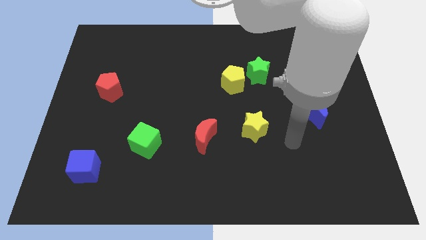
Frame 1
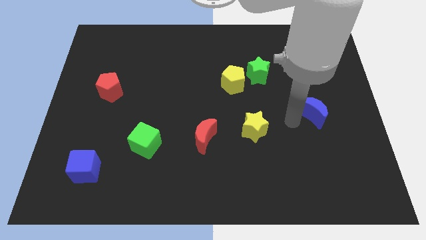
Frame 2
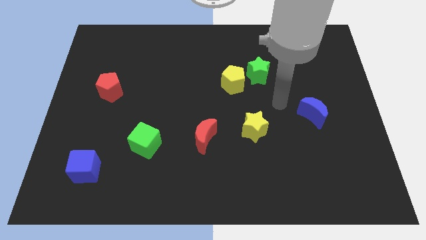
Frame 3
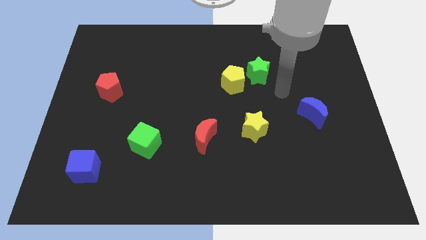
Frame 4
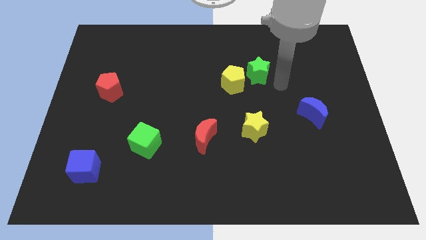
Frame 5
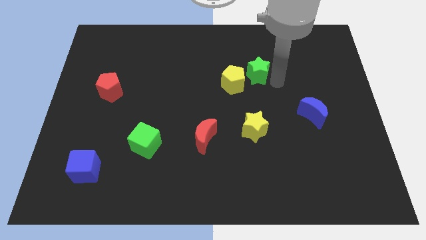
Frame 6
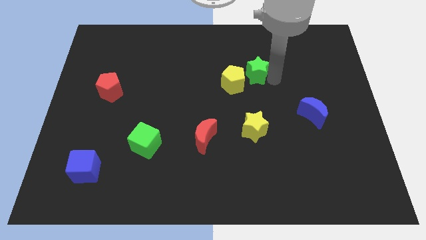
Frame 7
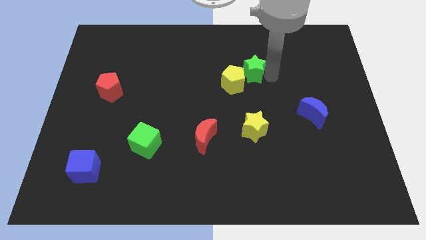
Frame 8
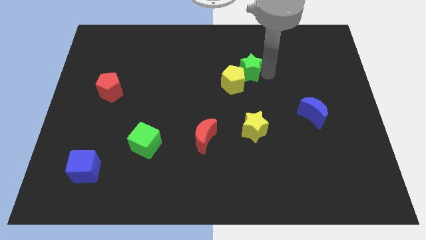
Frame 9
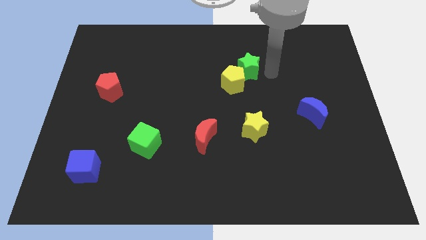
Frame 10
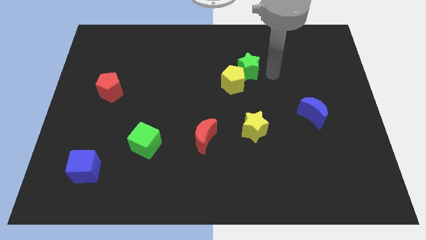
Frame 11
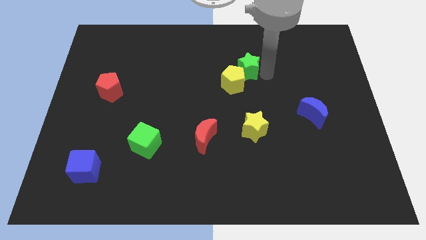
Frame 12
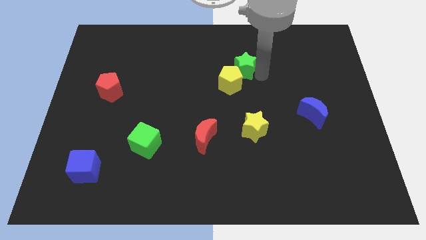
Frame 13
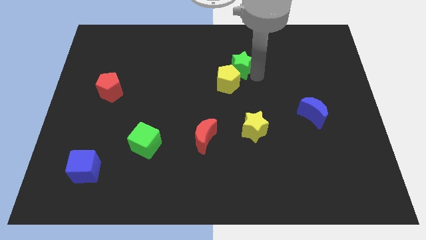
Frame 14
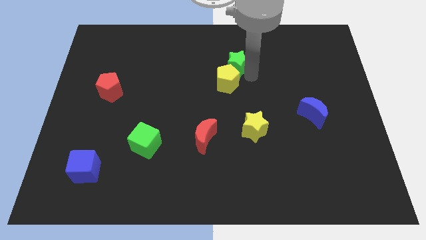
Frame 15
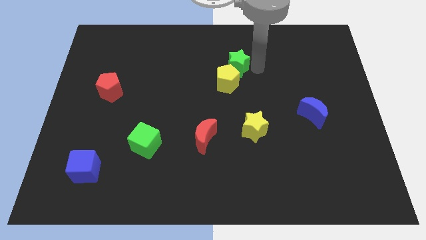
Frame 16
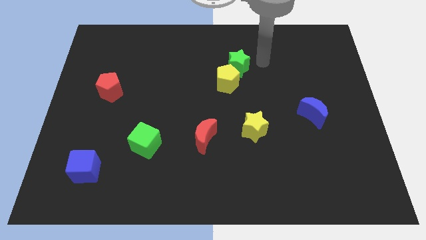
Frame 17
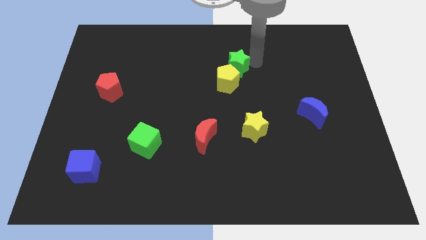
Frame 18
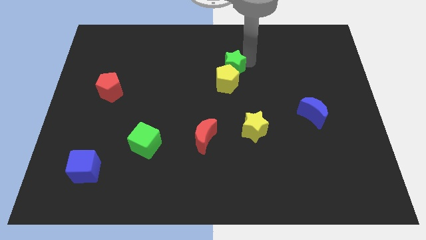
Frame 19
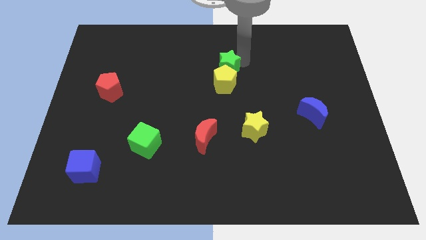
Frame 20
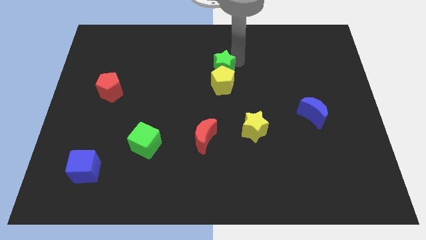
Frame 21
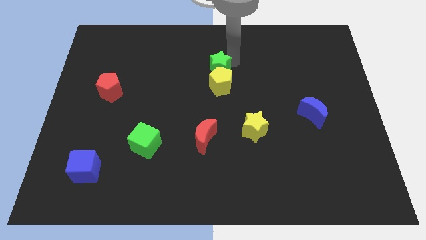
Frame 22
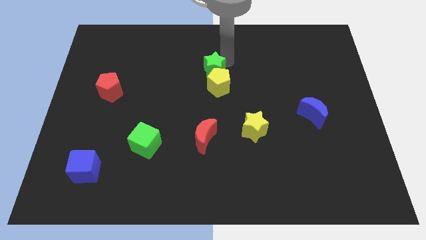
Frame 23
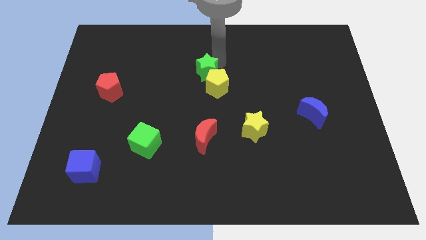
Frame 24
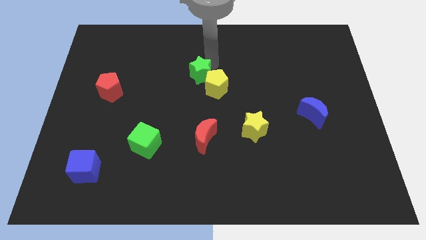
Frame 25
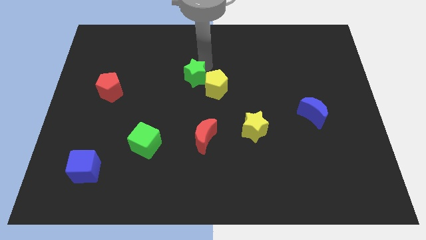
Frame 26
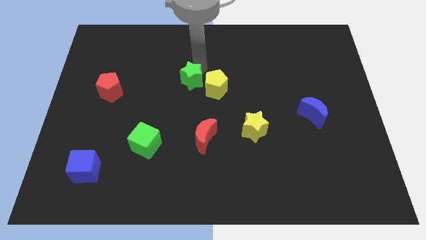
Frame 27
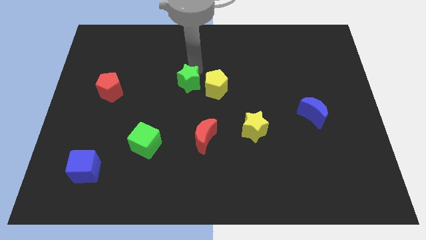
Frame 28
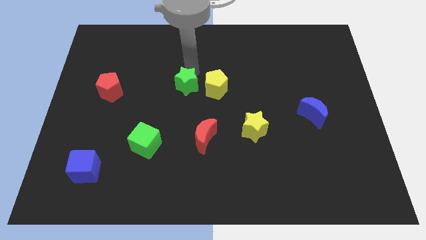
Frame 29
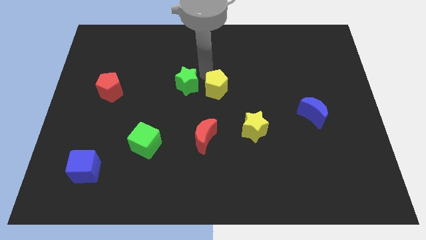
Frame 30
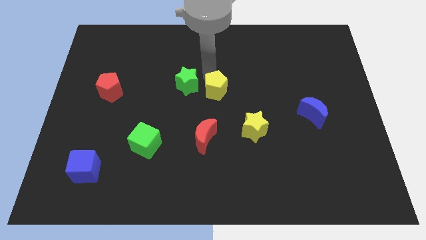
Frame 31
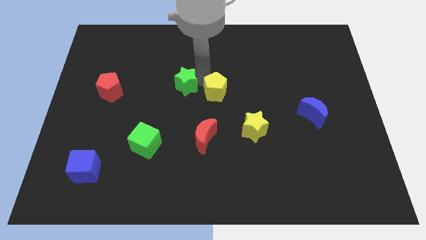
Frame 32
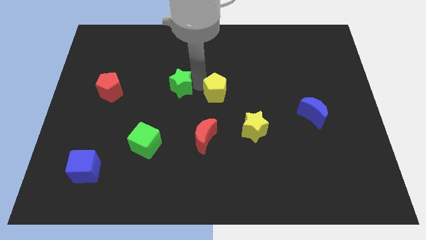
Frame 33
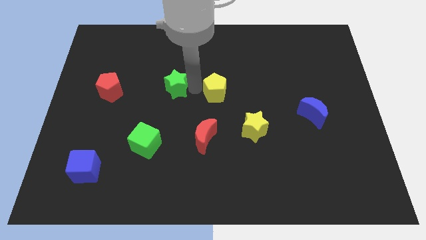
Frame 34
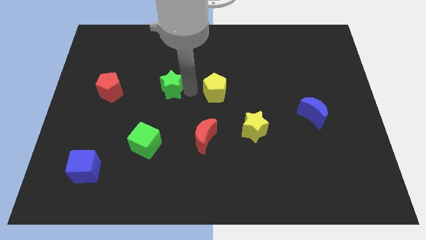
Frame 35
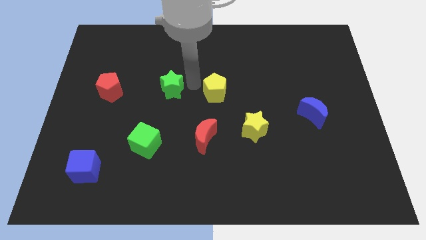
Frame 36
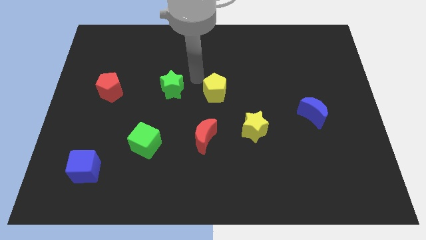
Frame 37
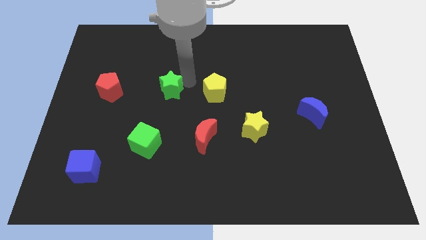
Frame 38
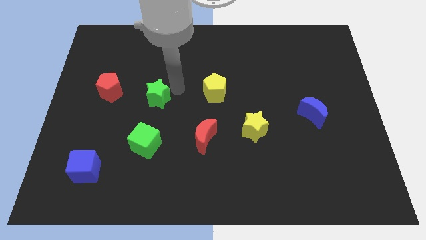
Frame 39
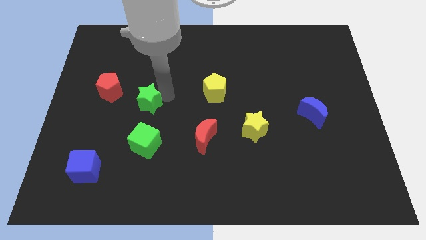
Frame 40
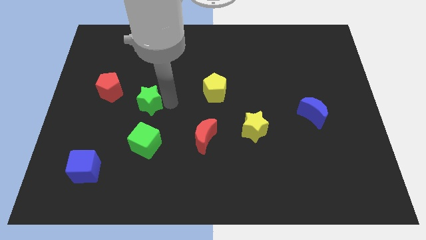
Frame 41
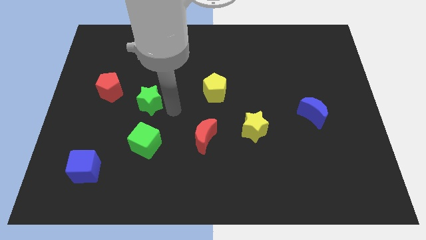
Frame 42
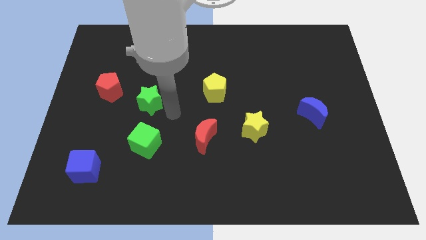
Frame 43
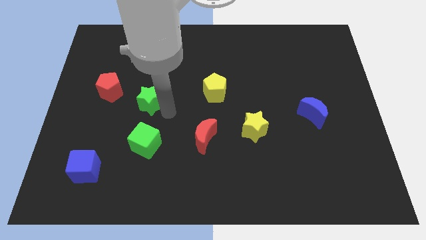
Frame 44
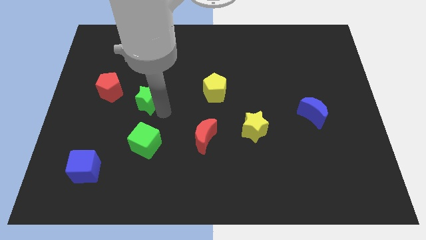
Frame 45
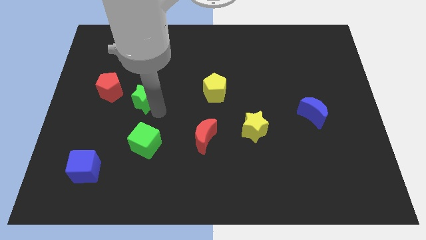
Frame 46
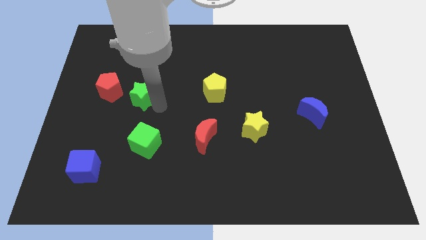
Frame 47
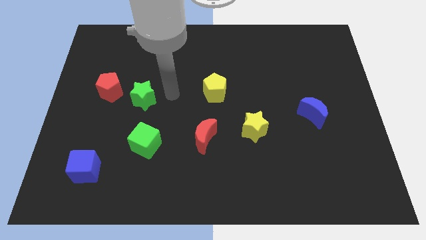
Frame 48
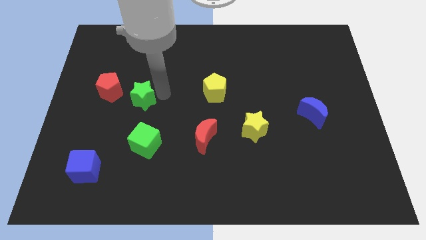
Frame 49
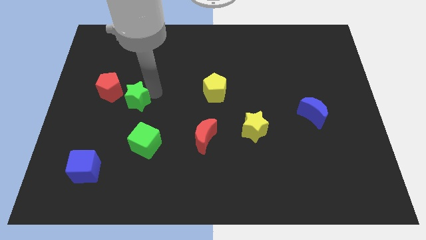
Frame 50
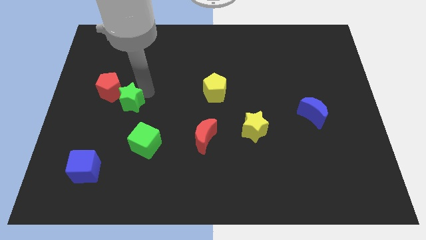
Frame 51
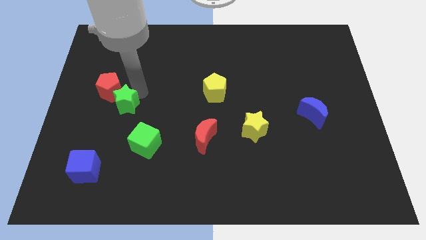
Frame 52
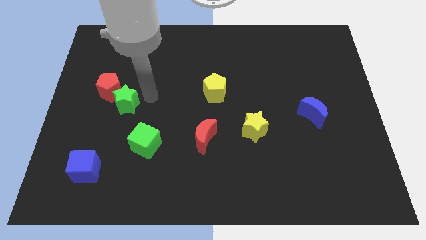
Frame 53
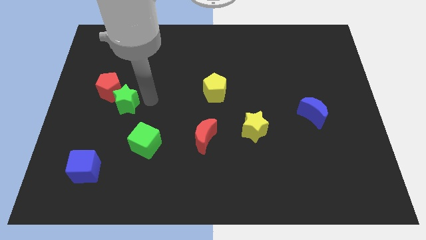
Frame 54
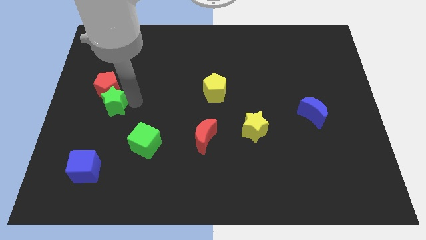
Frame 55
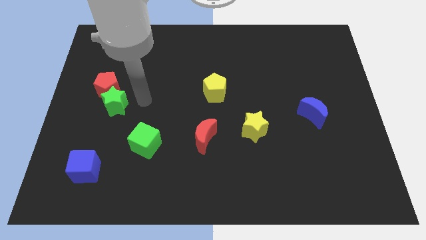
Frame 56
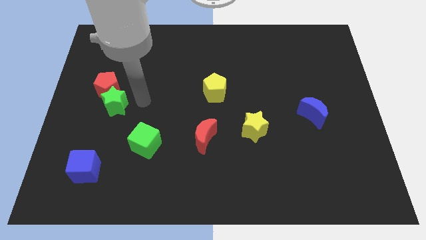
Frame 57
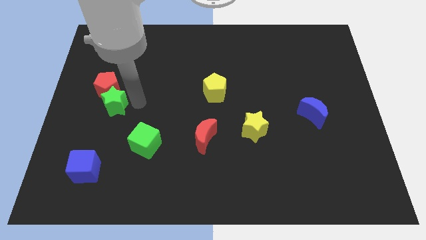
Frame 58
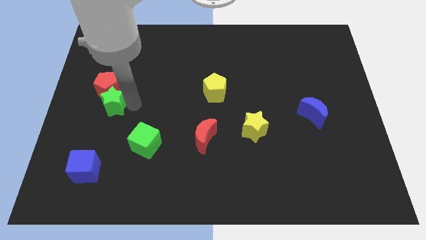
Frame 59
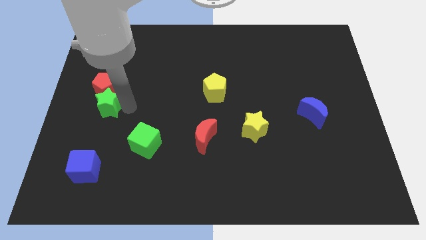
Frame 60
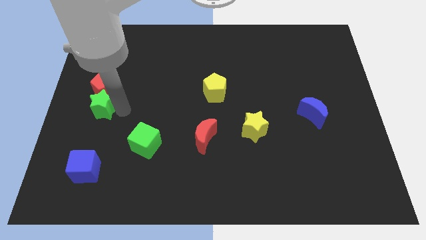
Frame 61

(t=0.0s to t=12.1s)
move the green star to the left side of the board

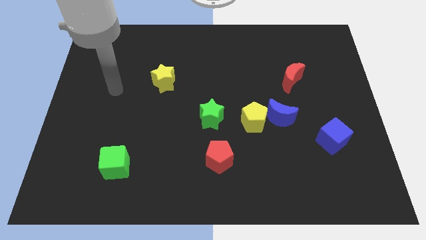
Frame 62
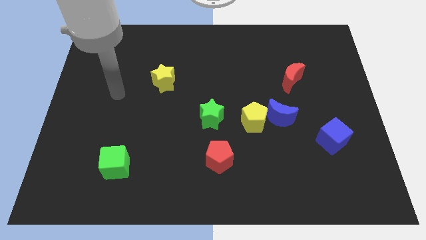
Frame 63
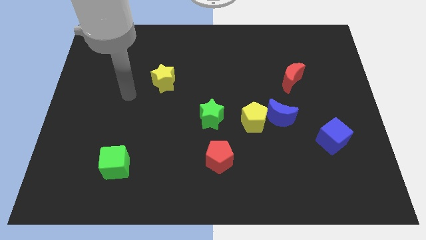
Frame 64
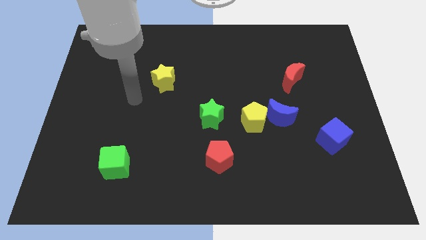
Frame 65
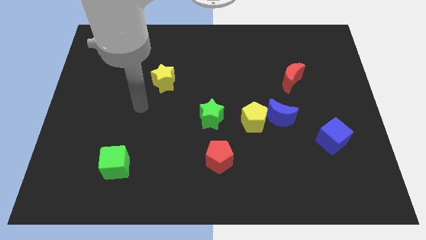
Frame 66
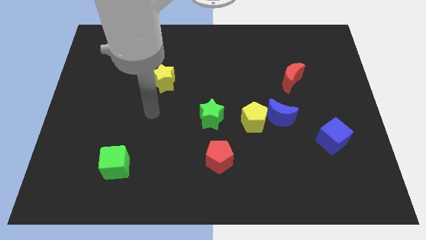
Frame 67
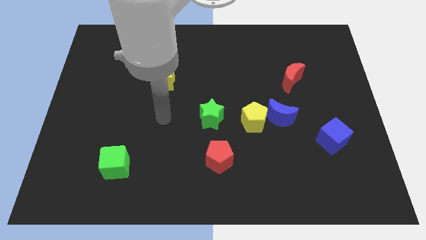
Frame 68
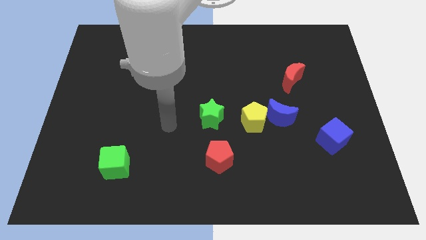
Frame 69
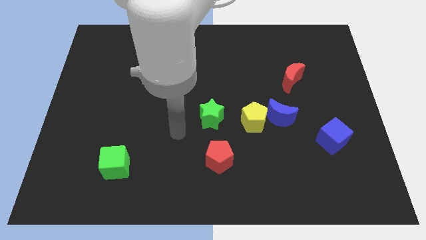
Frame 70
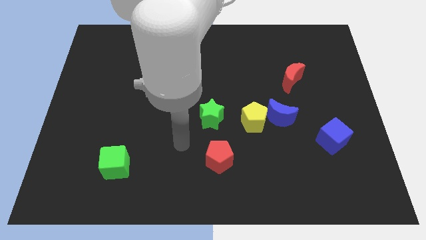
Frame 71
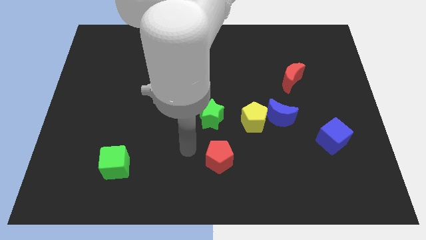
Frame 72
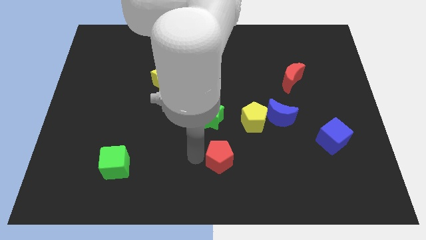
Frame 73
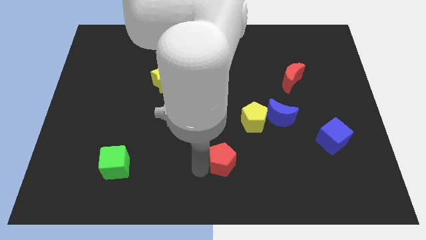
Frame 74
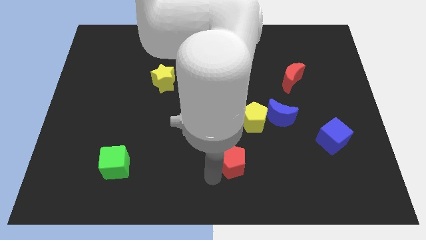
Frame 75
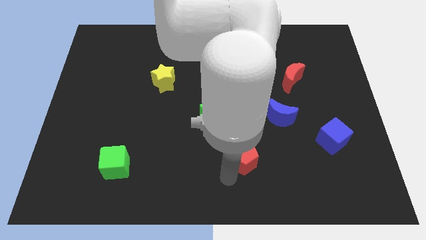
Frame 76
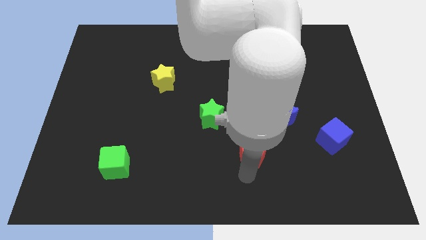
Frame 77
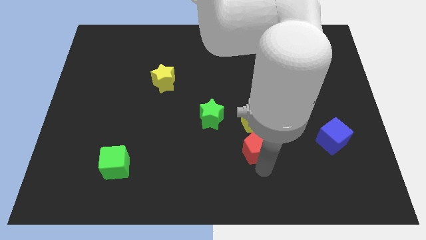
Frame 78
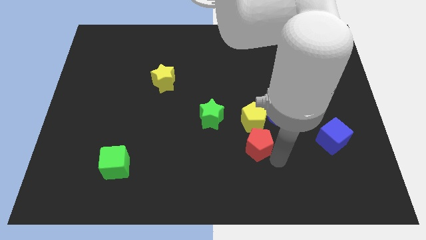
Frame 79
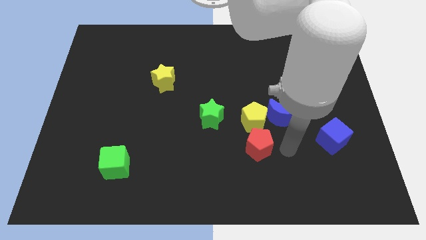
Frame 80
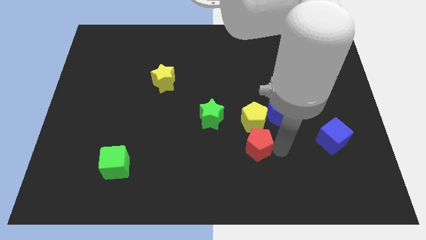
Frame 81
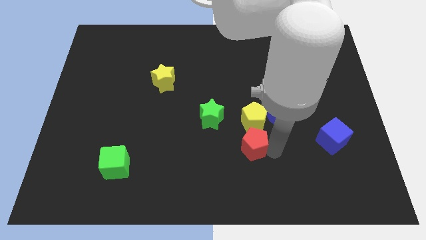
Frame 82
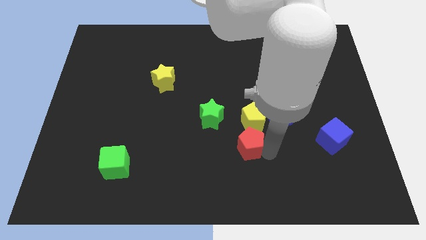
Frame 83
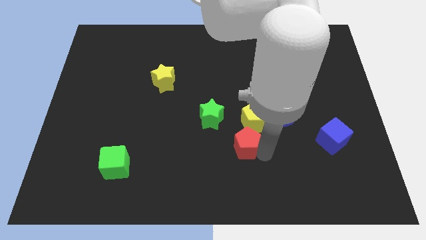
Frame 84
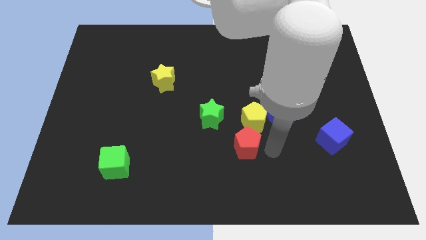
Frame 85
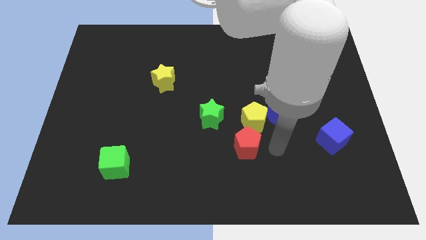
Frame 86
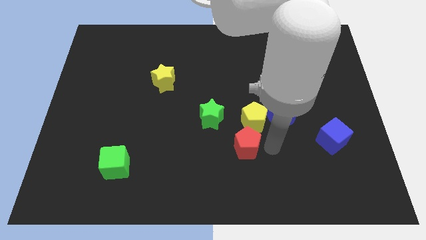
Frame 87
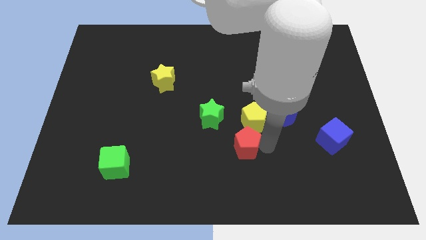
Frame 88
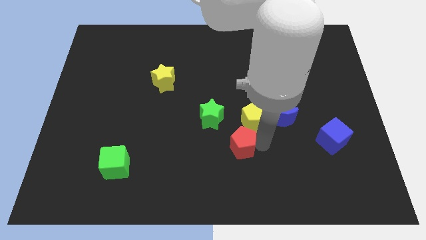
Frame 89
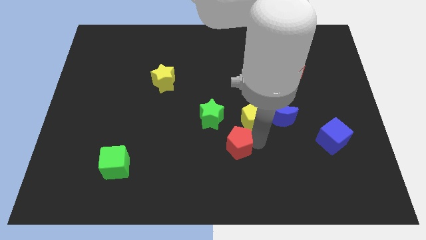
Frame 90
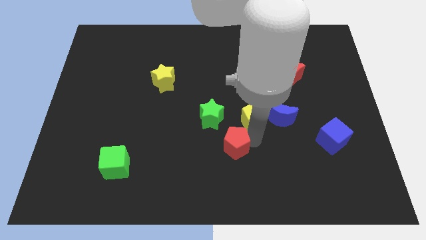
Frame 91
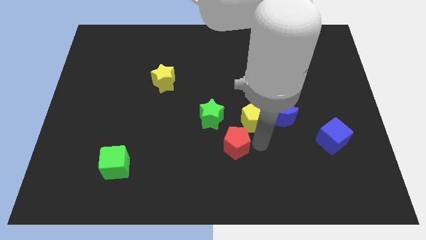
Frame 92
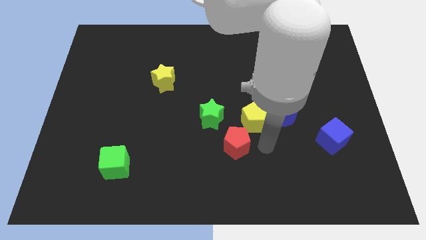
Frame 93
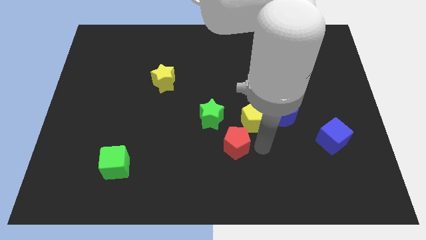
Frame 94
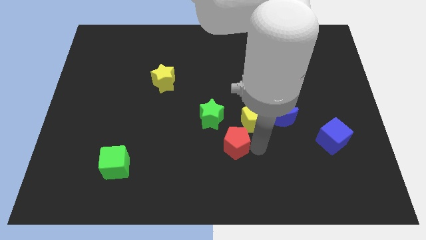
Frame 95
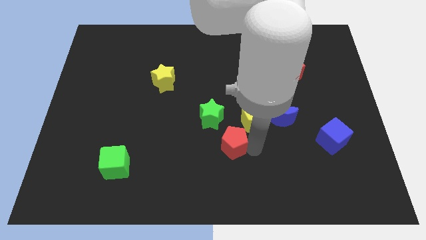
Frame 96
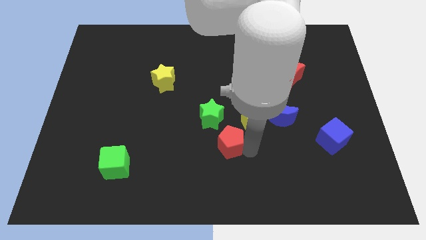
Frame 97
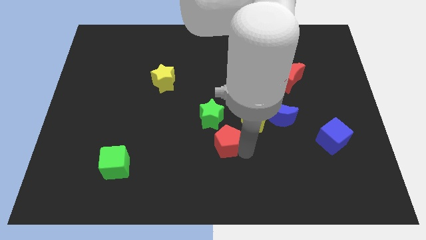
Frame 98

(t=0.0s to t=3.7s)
put the red pentagon to the middle
